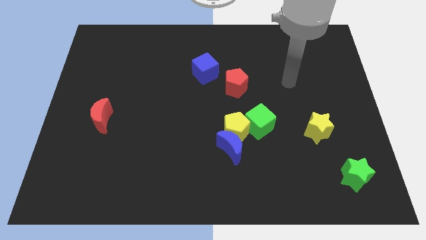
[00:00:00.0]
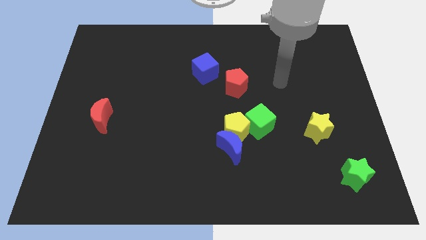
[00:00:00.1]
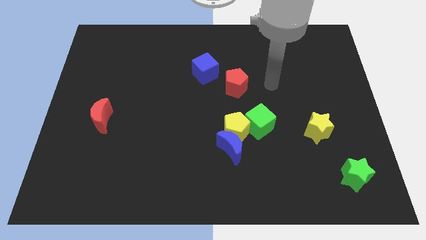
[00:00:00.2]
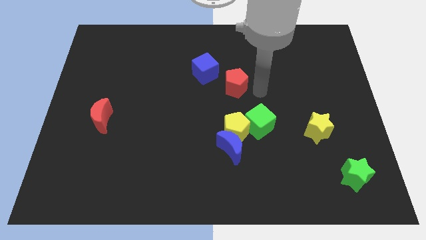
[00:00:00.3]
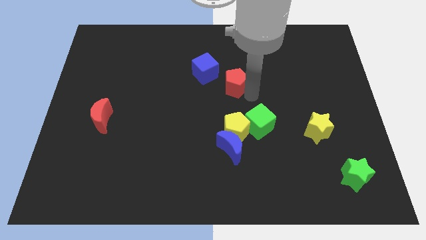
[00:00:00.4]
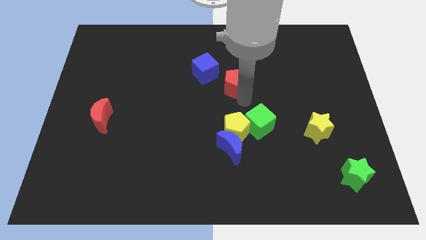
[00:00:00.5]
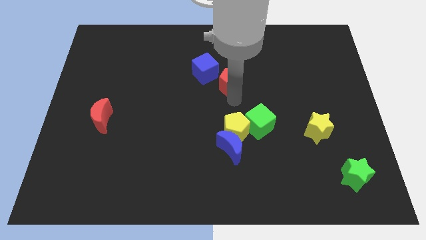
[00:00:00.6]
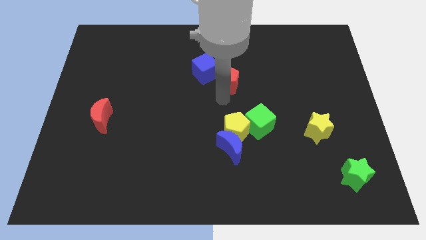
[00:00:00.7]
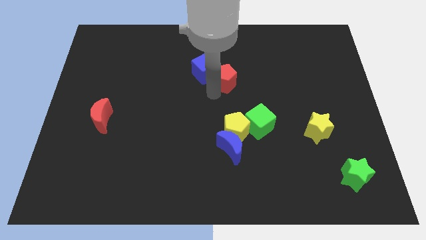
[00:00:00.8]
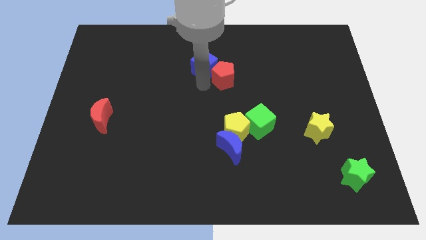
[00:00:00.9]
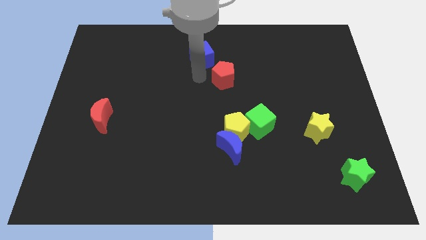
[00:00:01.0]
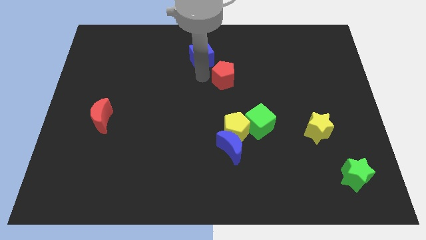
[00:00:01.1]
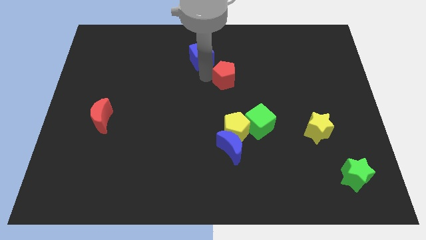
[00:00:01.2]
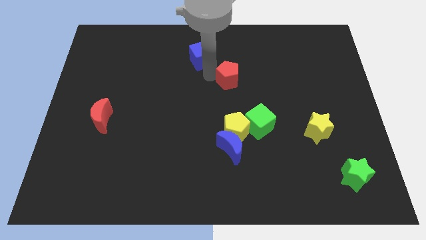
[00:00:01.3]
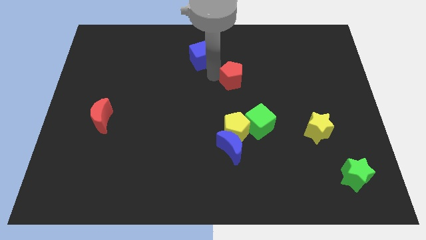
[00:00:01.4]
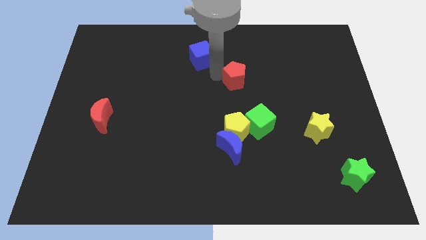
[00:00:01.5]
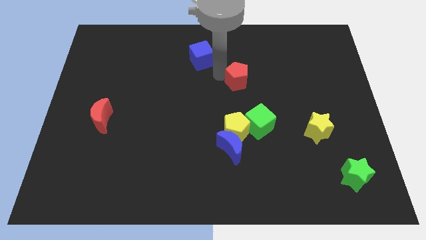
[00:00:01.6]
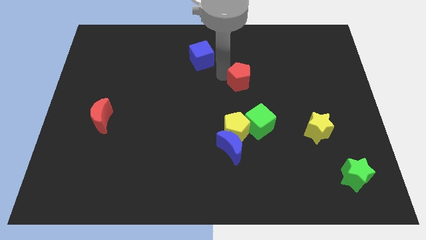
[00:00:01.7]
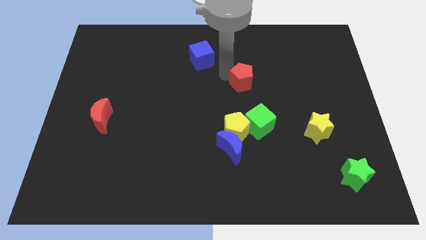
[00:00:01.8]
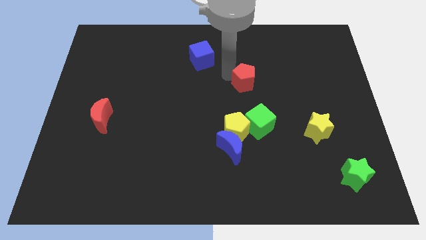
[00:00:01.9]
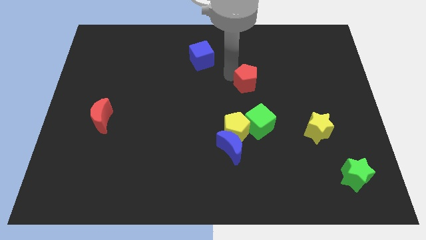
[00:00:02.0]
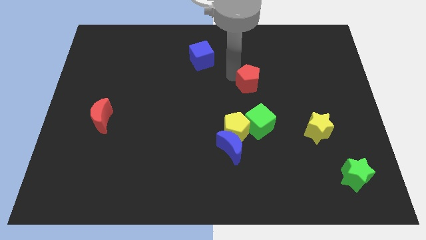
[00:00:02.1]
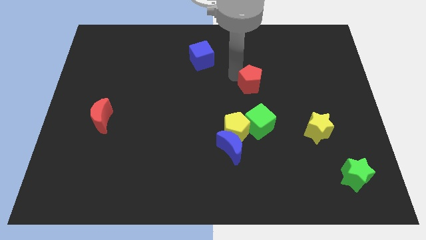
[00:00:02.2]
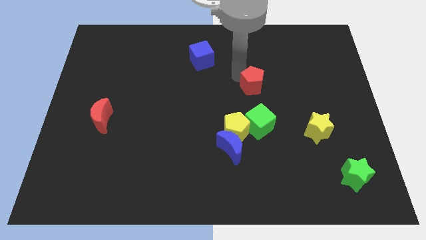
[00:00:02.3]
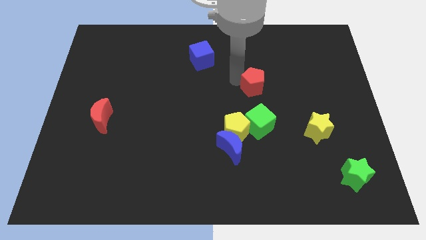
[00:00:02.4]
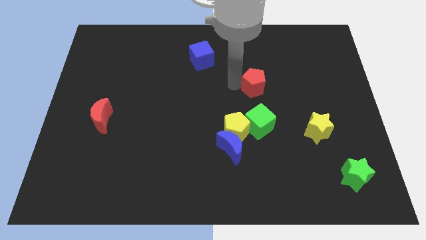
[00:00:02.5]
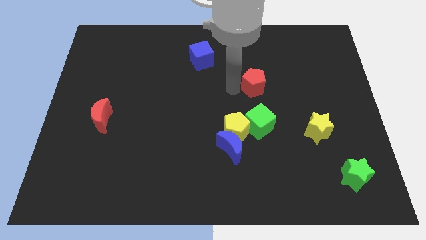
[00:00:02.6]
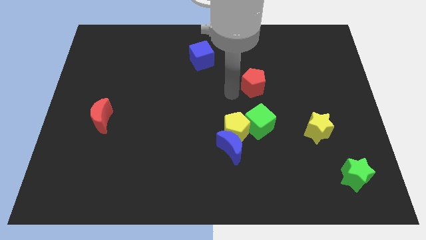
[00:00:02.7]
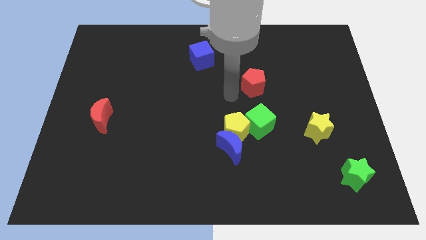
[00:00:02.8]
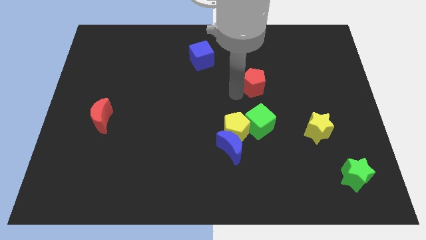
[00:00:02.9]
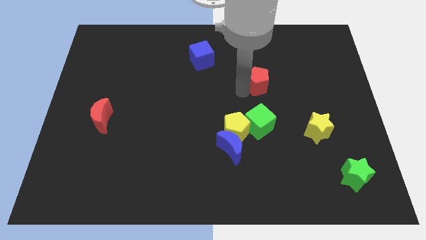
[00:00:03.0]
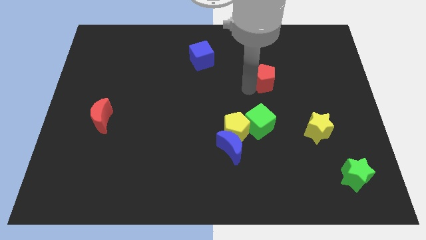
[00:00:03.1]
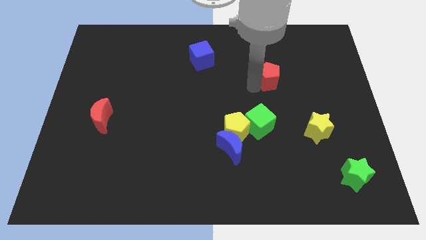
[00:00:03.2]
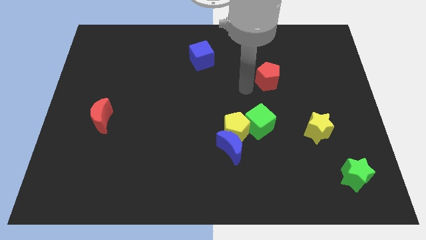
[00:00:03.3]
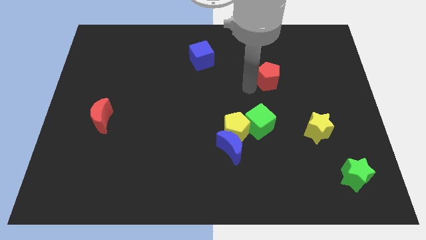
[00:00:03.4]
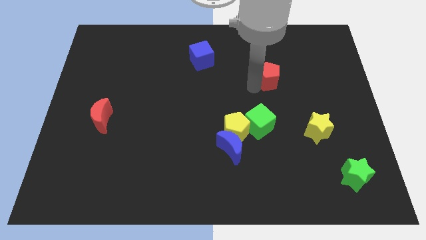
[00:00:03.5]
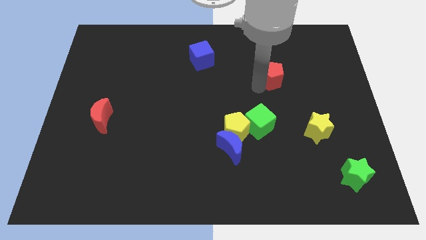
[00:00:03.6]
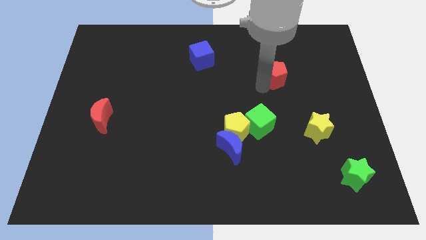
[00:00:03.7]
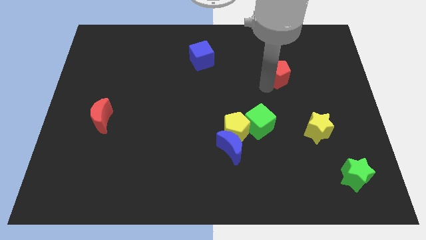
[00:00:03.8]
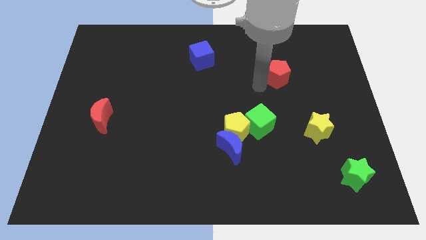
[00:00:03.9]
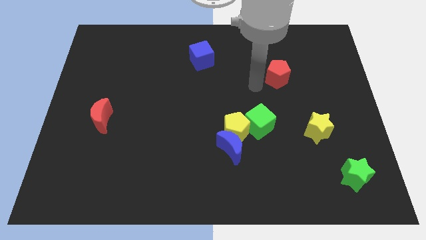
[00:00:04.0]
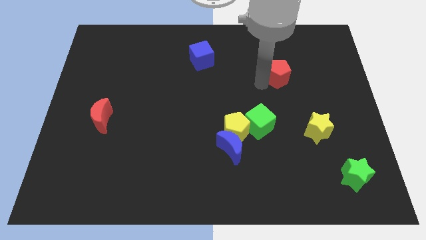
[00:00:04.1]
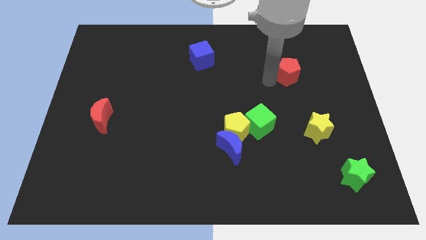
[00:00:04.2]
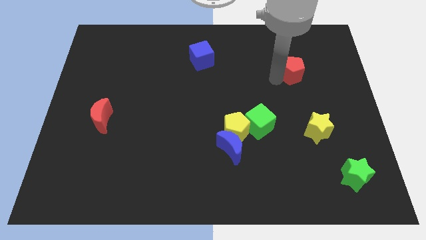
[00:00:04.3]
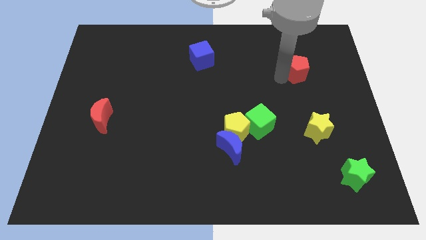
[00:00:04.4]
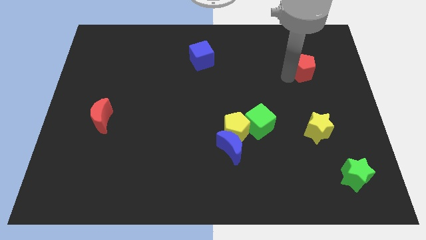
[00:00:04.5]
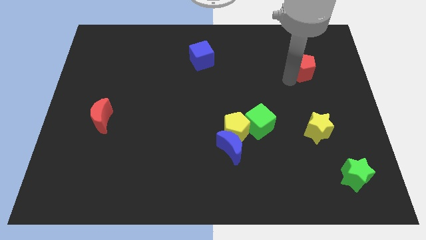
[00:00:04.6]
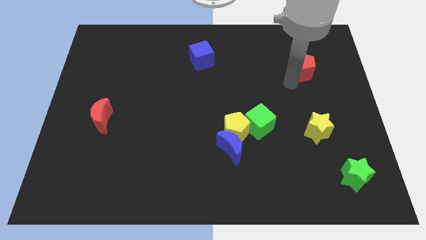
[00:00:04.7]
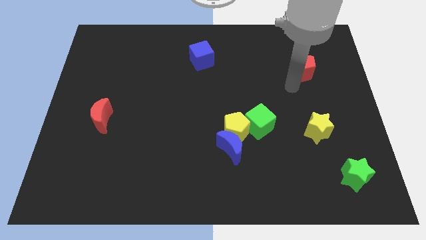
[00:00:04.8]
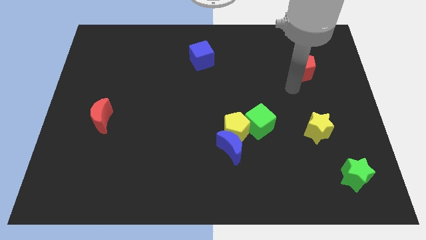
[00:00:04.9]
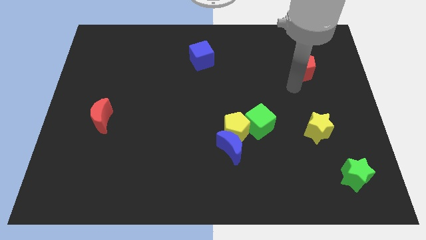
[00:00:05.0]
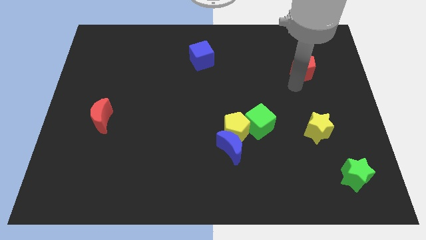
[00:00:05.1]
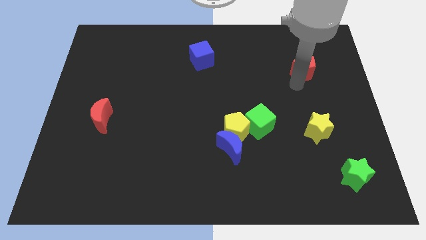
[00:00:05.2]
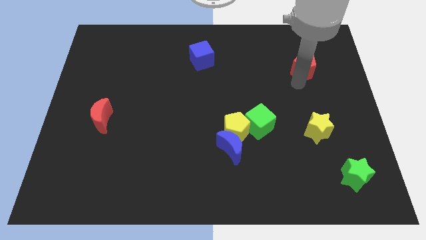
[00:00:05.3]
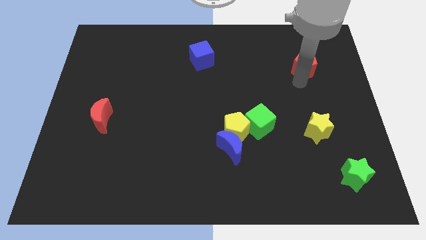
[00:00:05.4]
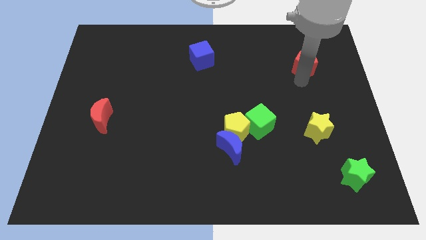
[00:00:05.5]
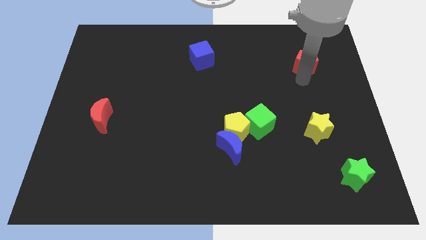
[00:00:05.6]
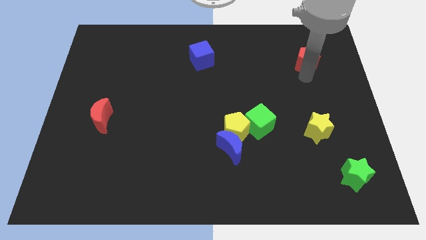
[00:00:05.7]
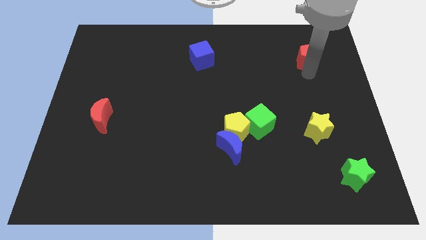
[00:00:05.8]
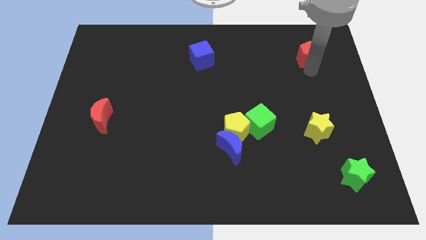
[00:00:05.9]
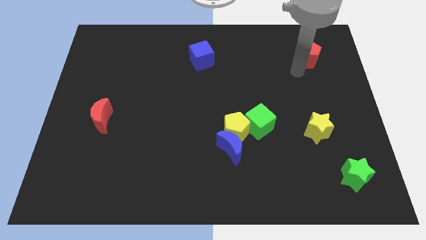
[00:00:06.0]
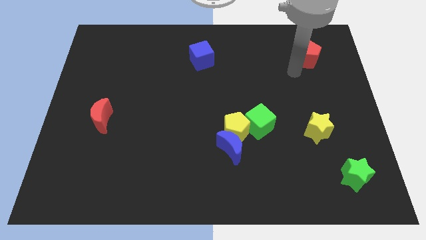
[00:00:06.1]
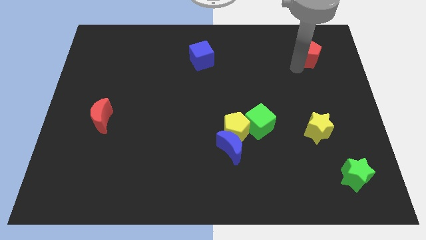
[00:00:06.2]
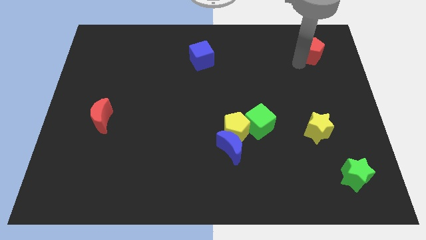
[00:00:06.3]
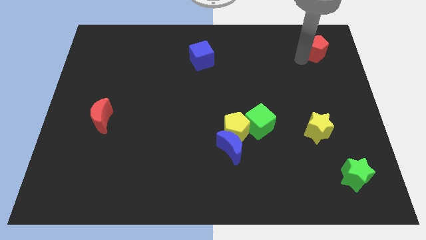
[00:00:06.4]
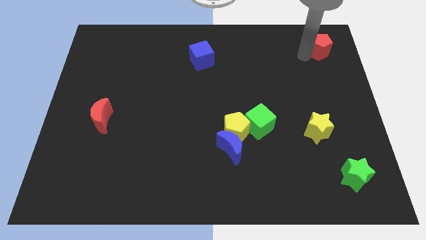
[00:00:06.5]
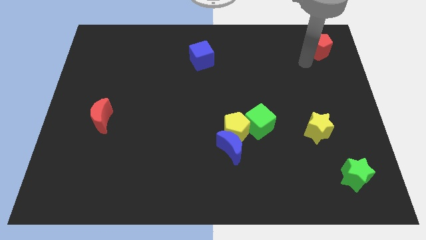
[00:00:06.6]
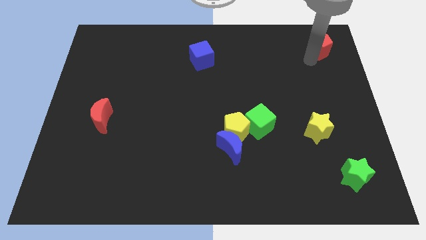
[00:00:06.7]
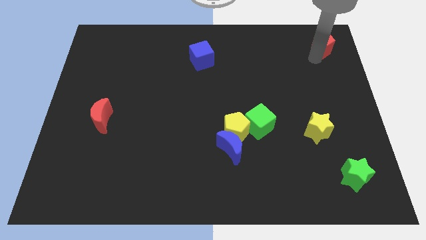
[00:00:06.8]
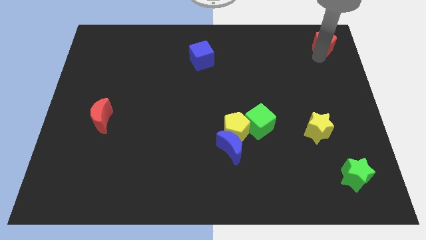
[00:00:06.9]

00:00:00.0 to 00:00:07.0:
push the red pentagon to the upper right corner
